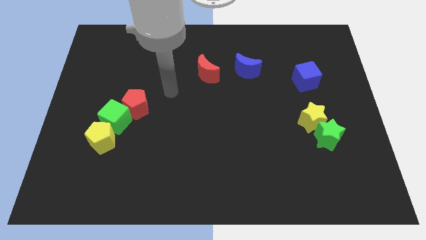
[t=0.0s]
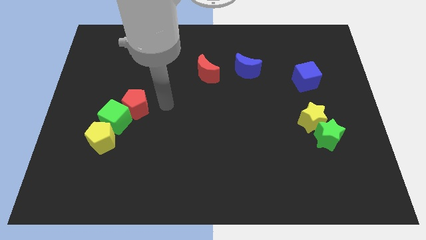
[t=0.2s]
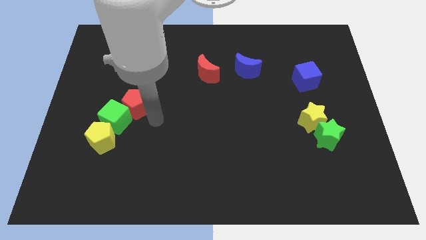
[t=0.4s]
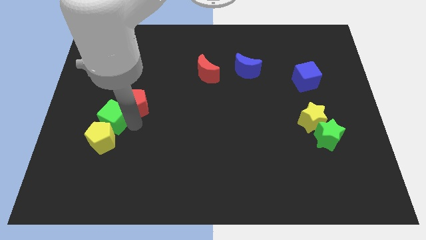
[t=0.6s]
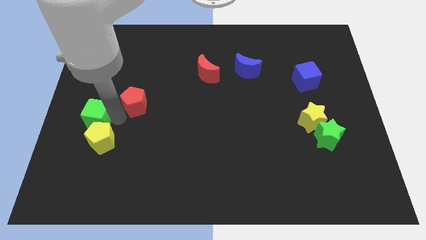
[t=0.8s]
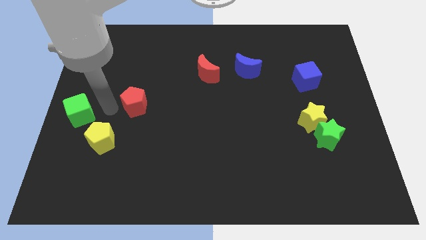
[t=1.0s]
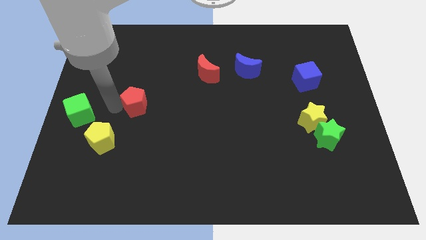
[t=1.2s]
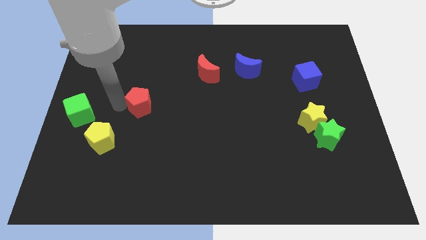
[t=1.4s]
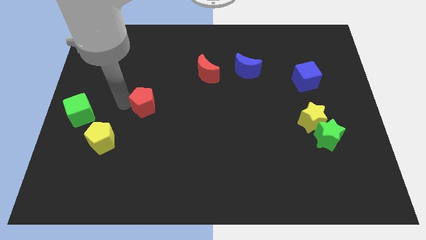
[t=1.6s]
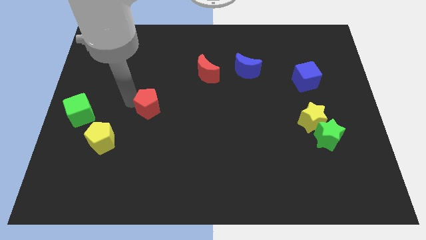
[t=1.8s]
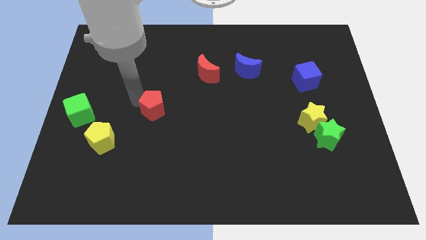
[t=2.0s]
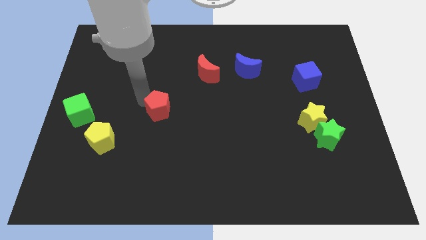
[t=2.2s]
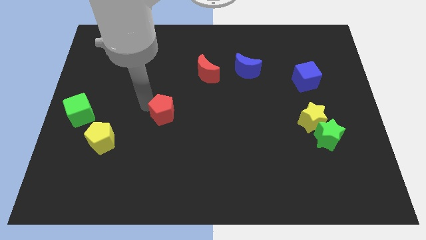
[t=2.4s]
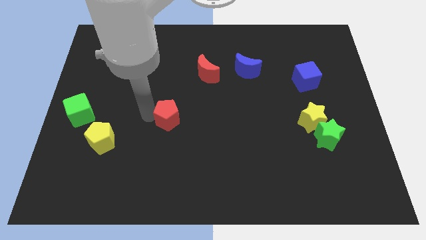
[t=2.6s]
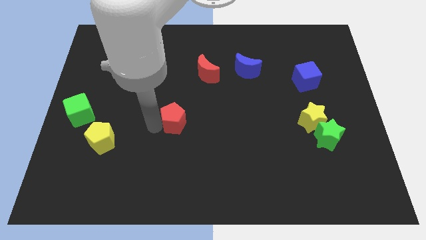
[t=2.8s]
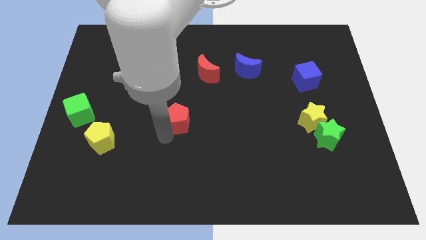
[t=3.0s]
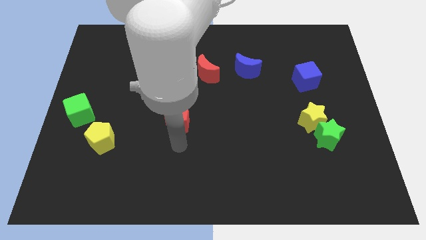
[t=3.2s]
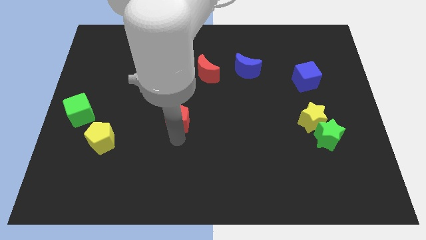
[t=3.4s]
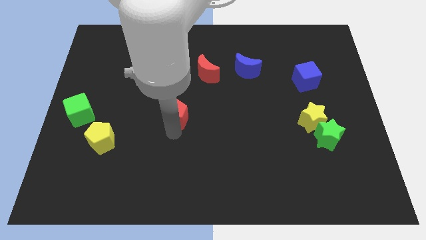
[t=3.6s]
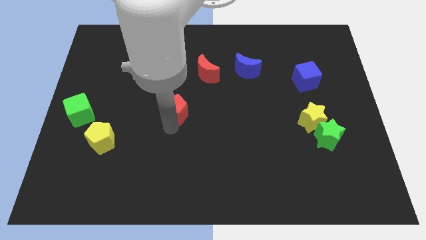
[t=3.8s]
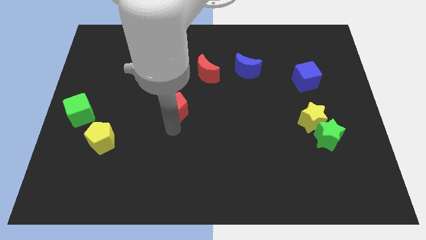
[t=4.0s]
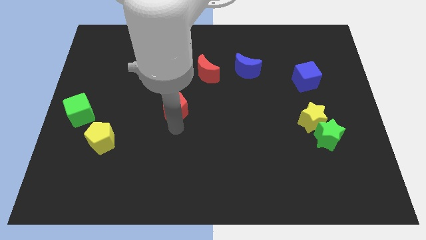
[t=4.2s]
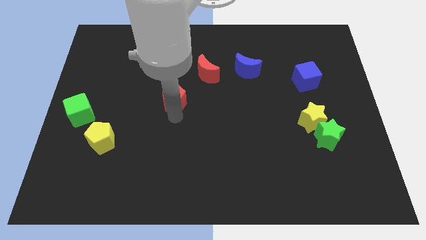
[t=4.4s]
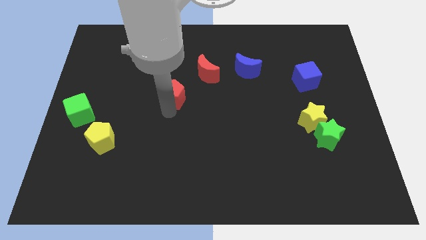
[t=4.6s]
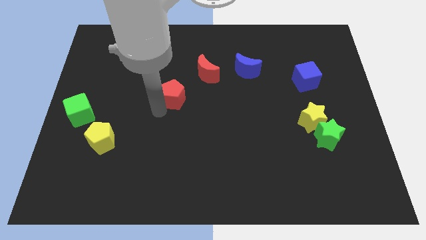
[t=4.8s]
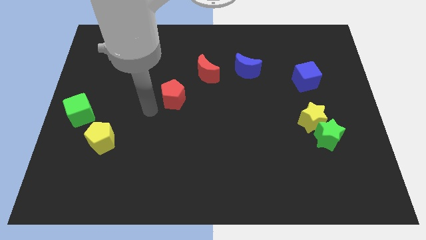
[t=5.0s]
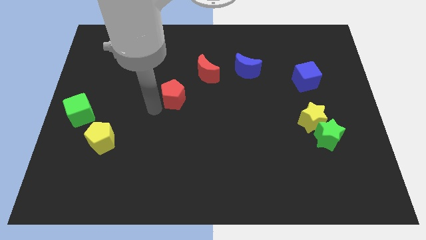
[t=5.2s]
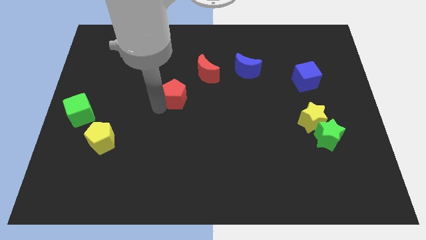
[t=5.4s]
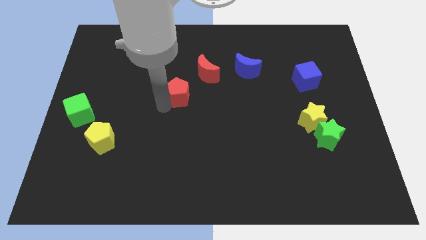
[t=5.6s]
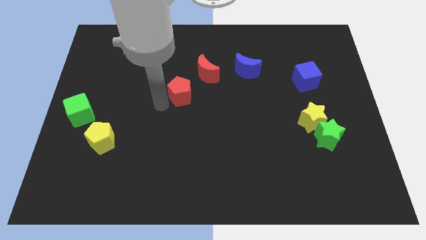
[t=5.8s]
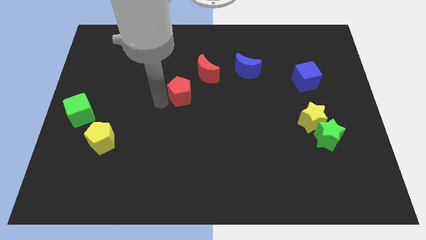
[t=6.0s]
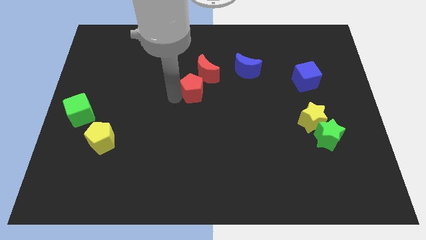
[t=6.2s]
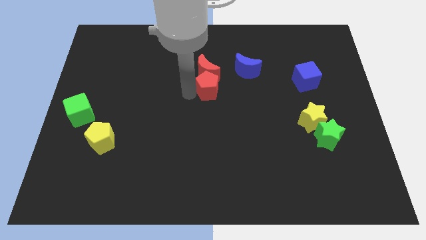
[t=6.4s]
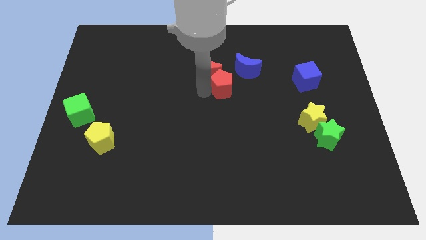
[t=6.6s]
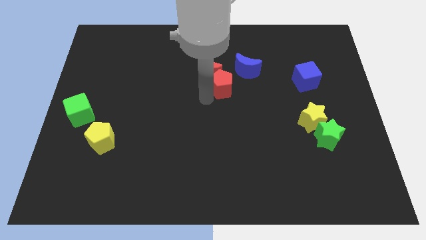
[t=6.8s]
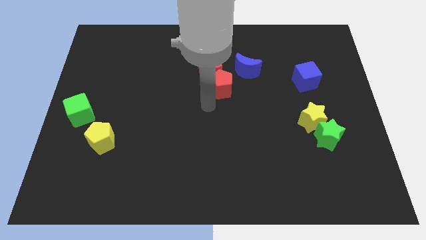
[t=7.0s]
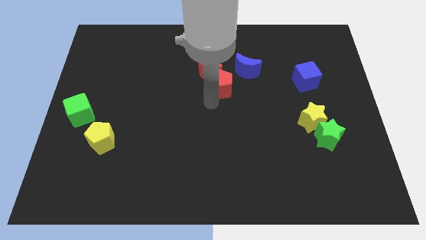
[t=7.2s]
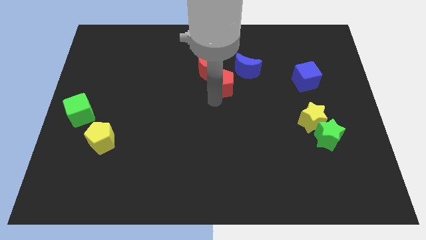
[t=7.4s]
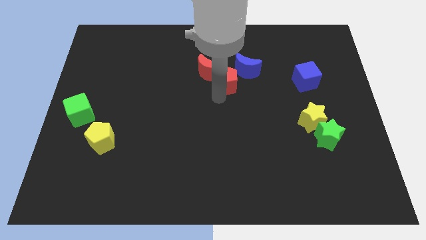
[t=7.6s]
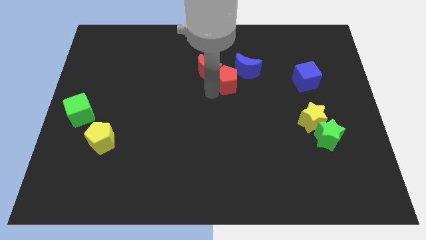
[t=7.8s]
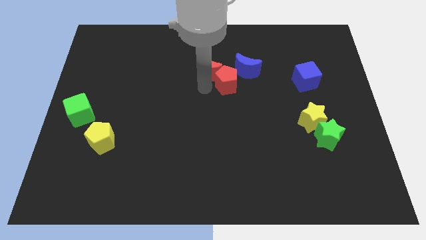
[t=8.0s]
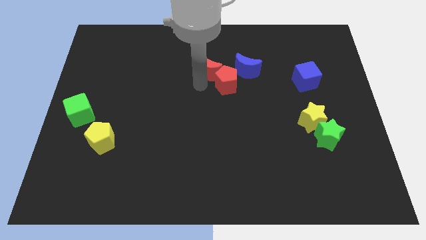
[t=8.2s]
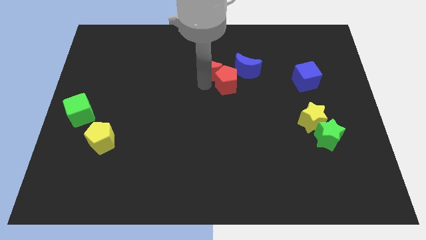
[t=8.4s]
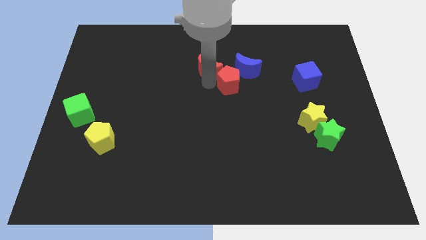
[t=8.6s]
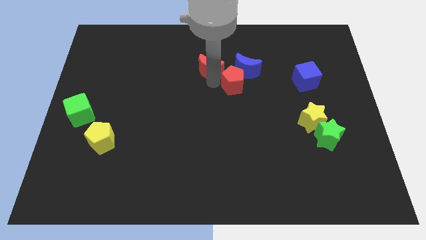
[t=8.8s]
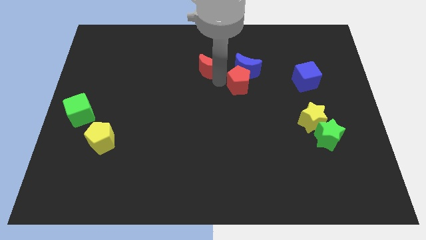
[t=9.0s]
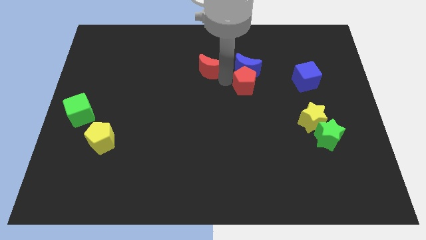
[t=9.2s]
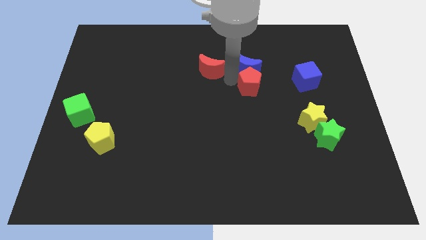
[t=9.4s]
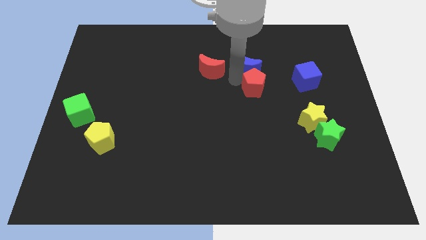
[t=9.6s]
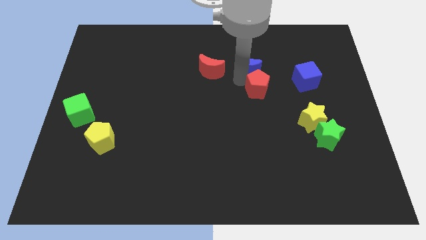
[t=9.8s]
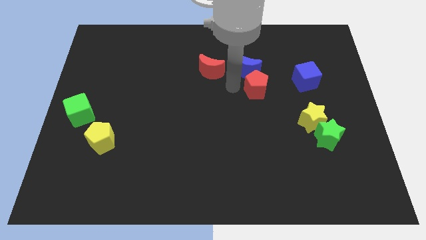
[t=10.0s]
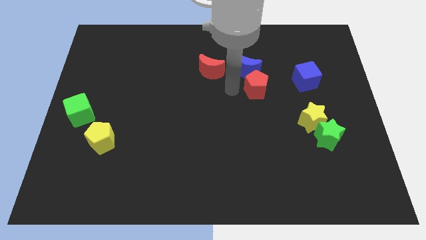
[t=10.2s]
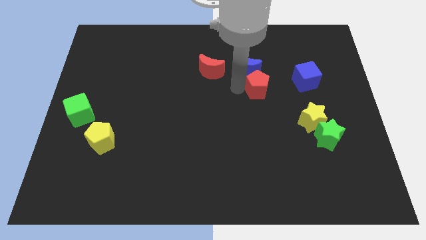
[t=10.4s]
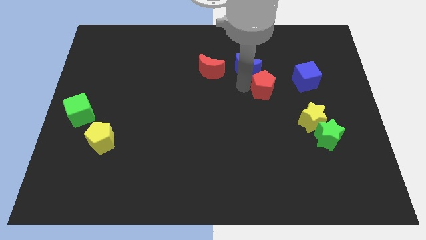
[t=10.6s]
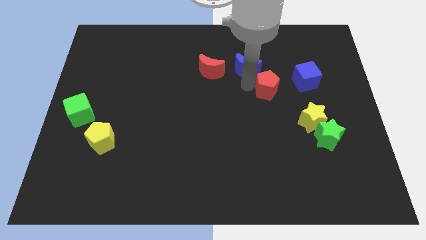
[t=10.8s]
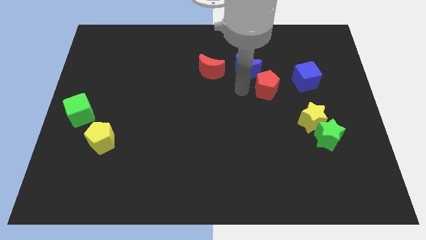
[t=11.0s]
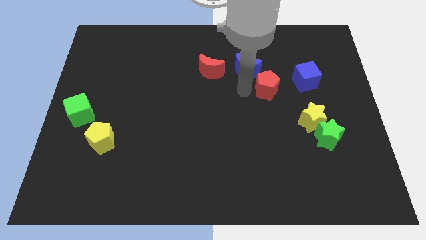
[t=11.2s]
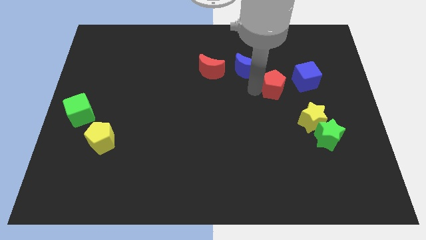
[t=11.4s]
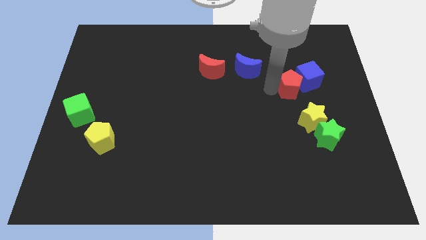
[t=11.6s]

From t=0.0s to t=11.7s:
push the red pentagon close to the blue cube
